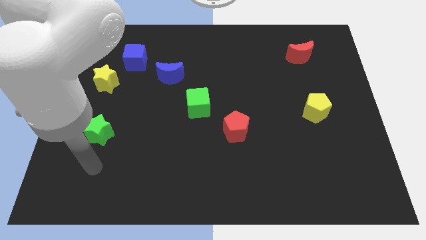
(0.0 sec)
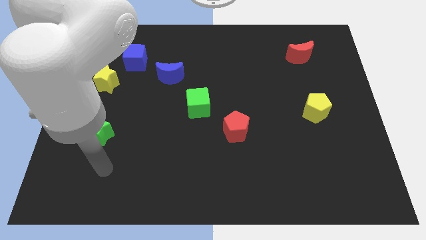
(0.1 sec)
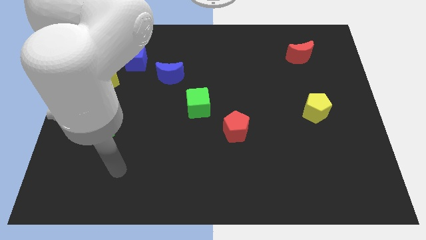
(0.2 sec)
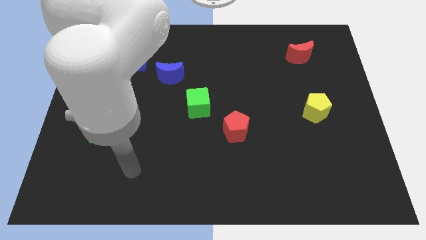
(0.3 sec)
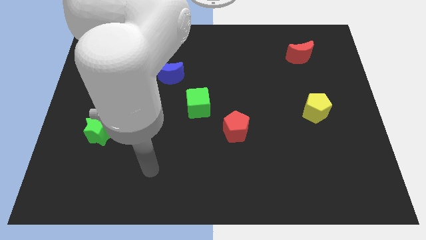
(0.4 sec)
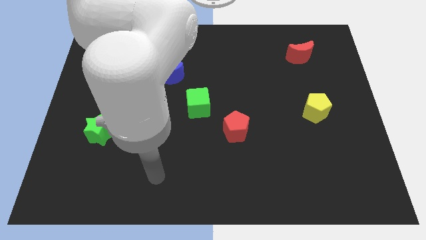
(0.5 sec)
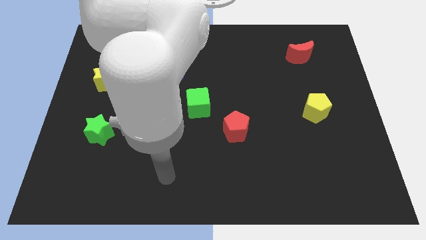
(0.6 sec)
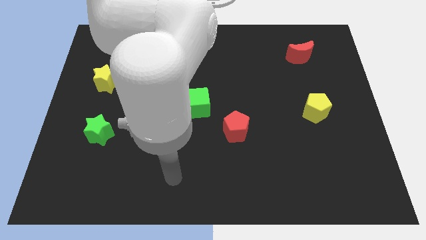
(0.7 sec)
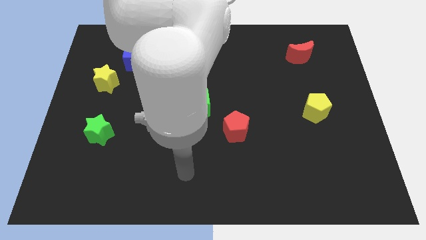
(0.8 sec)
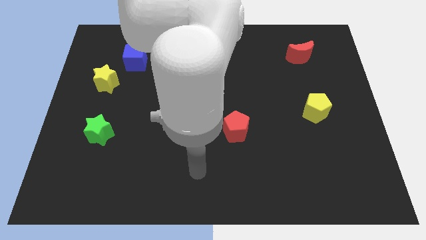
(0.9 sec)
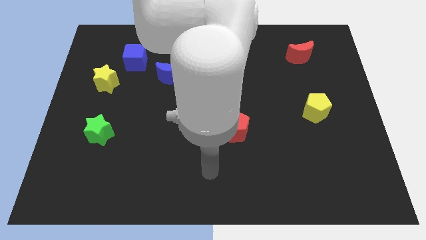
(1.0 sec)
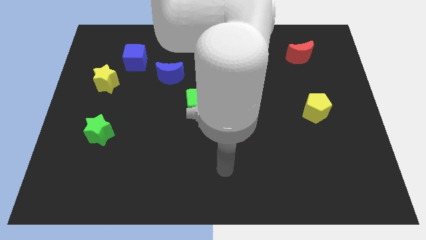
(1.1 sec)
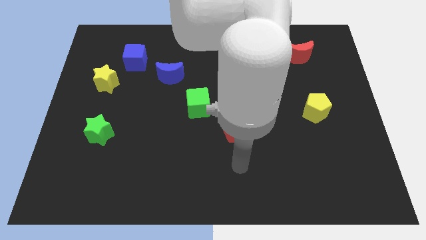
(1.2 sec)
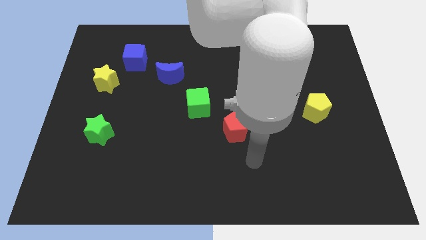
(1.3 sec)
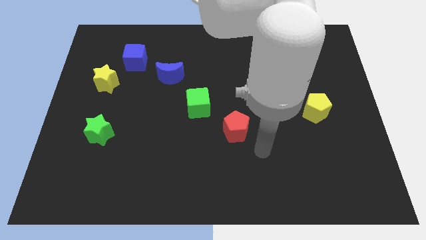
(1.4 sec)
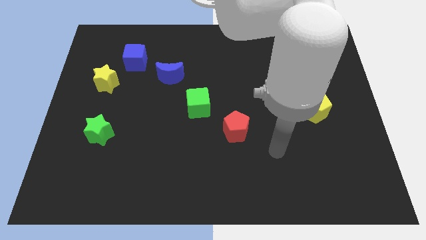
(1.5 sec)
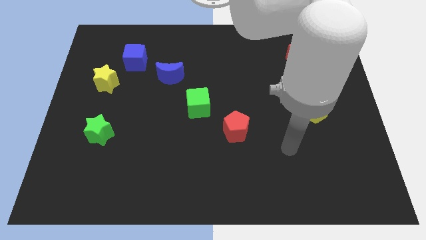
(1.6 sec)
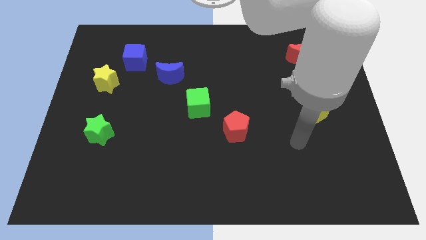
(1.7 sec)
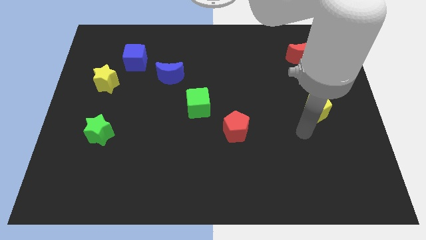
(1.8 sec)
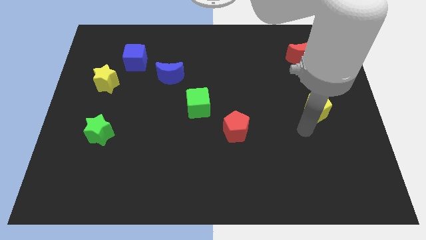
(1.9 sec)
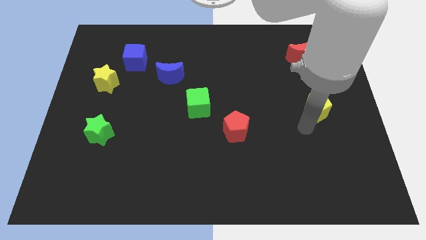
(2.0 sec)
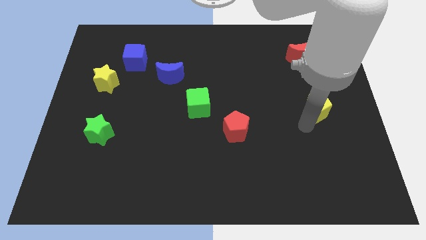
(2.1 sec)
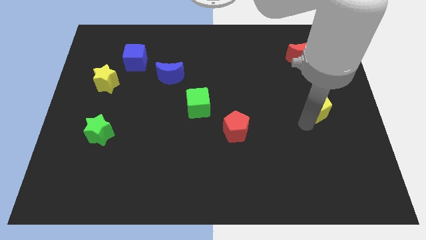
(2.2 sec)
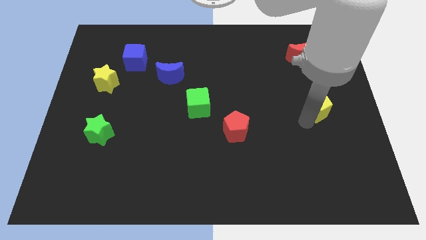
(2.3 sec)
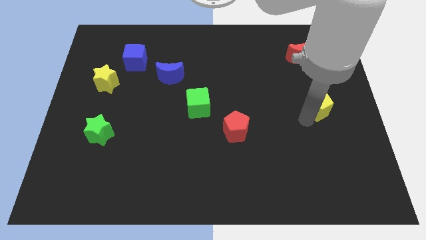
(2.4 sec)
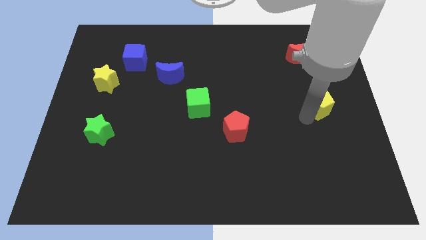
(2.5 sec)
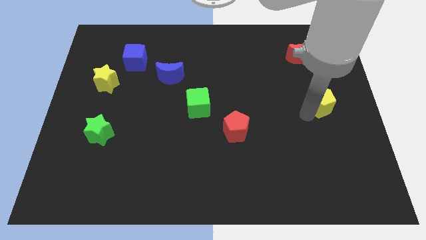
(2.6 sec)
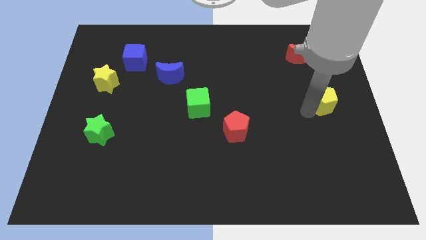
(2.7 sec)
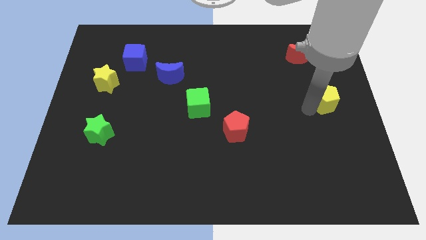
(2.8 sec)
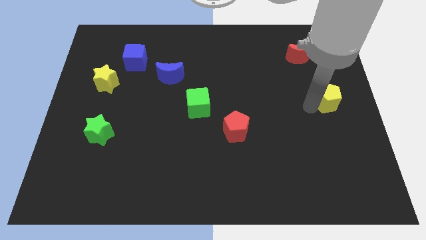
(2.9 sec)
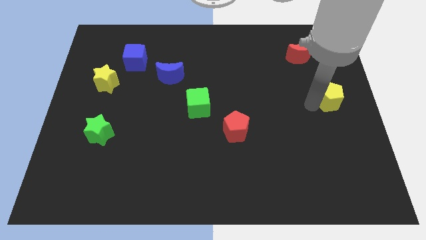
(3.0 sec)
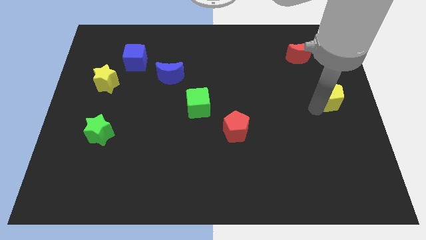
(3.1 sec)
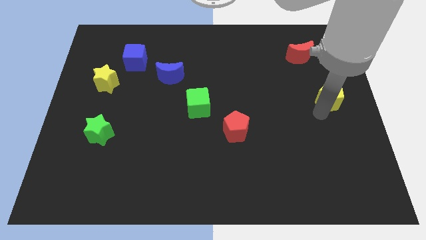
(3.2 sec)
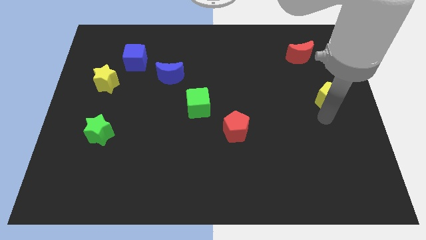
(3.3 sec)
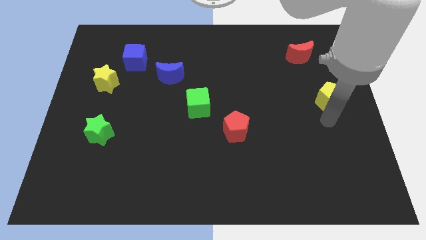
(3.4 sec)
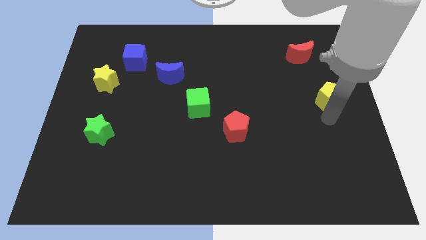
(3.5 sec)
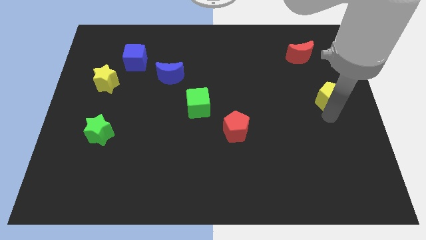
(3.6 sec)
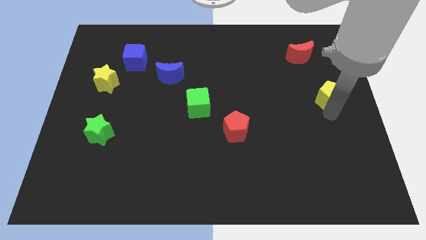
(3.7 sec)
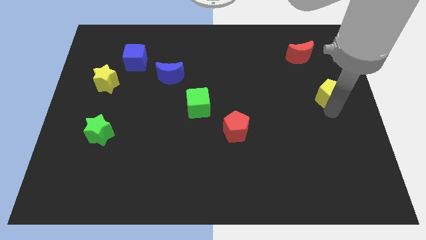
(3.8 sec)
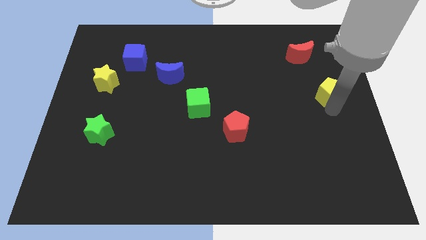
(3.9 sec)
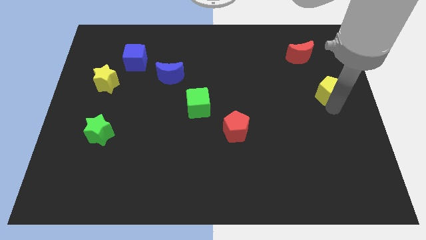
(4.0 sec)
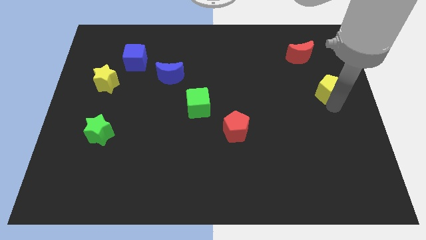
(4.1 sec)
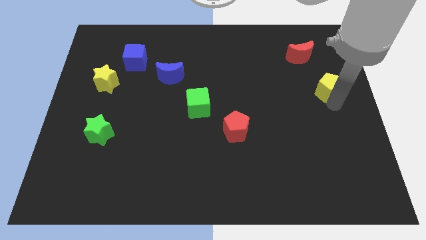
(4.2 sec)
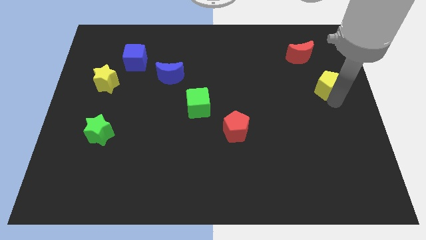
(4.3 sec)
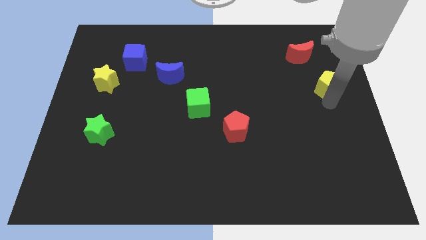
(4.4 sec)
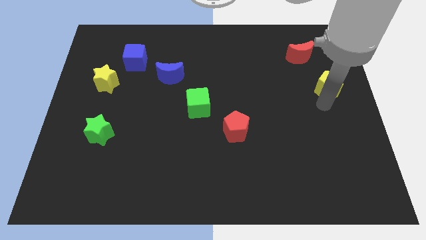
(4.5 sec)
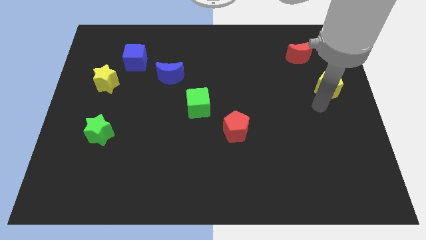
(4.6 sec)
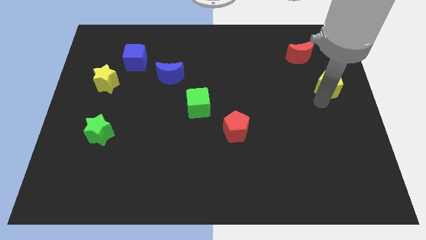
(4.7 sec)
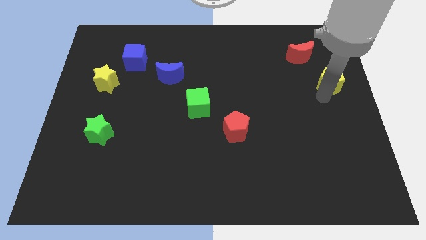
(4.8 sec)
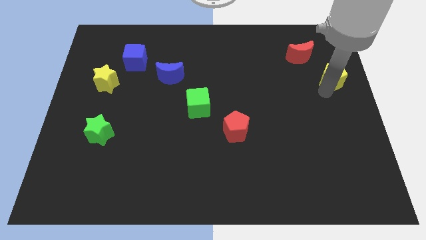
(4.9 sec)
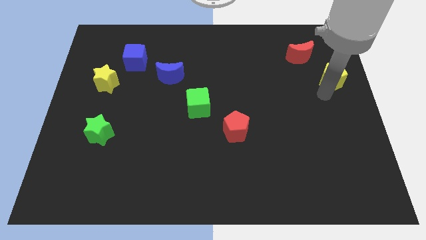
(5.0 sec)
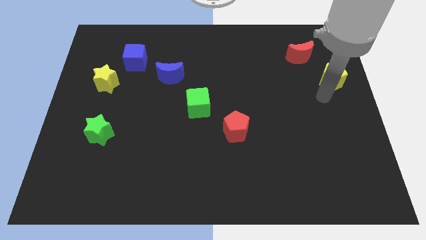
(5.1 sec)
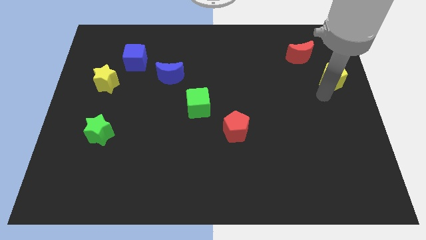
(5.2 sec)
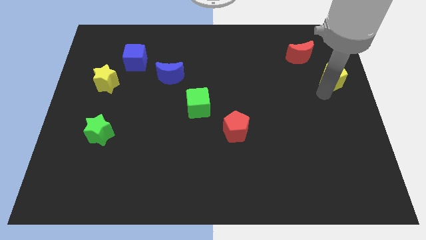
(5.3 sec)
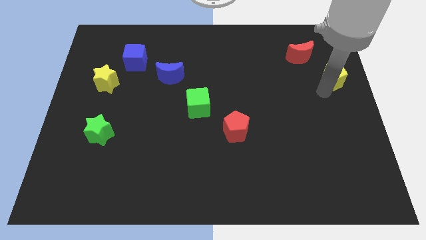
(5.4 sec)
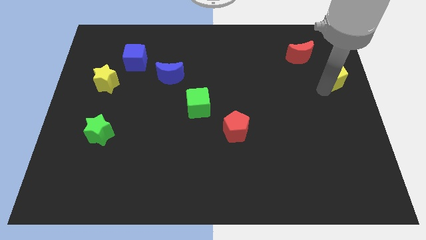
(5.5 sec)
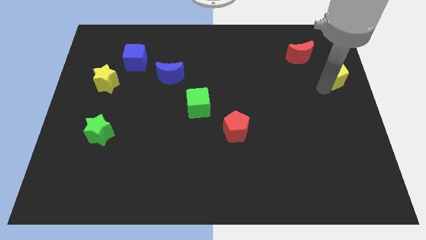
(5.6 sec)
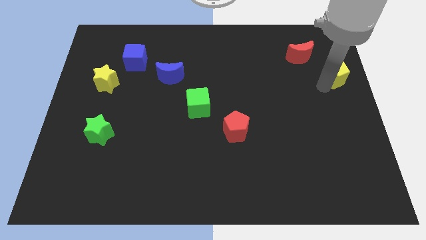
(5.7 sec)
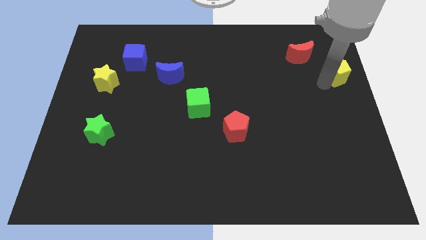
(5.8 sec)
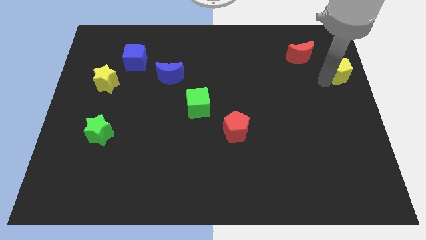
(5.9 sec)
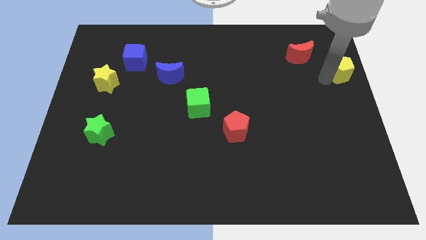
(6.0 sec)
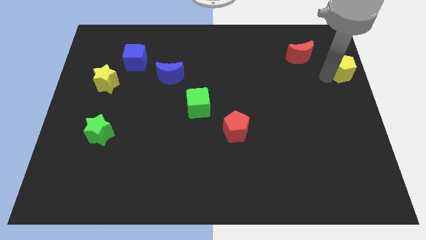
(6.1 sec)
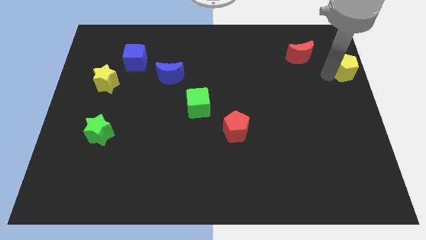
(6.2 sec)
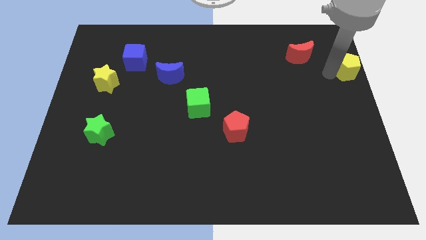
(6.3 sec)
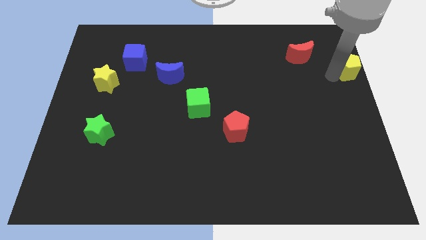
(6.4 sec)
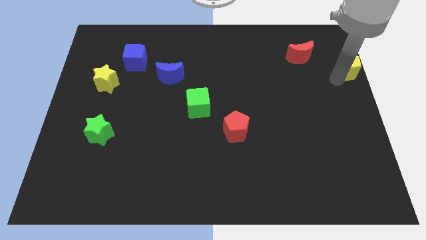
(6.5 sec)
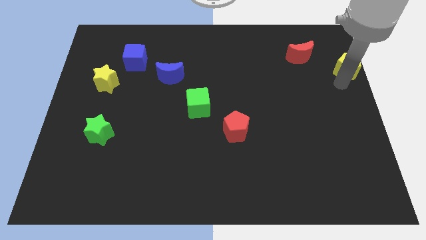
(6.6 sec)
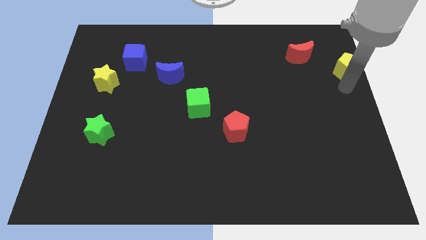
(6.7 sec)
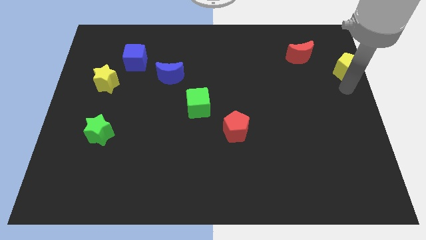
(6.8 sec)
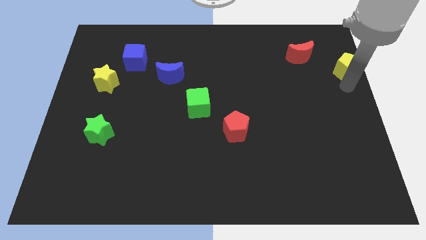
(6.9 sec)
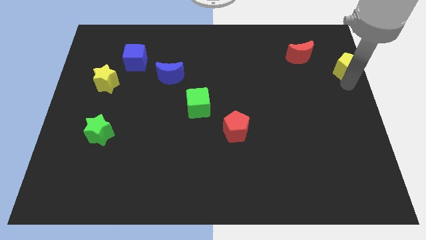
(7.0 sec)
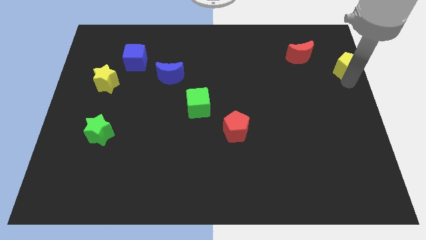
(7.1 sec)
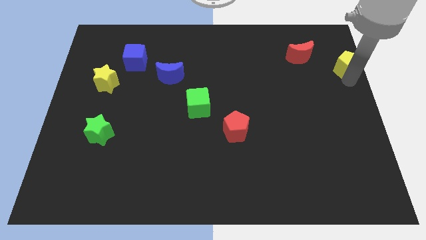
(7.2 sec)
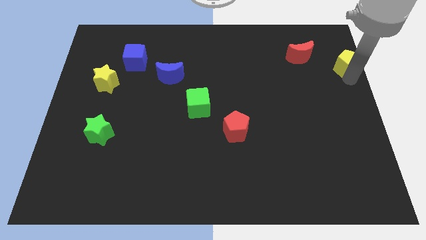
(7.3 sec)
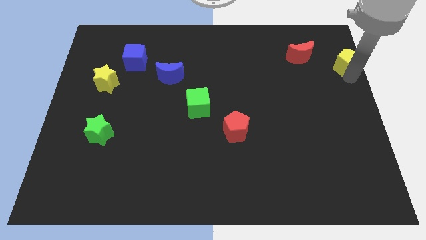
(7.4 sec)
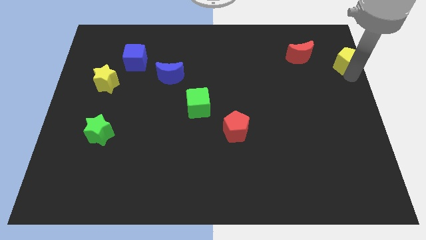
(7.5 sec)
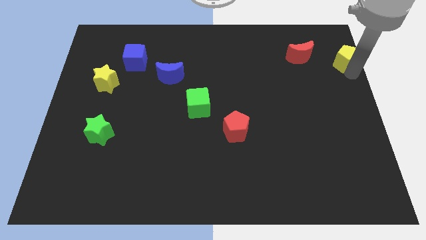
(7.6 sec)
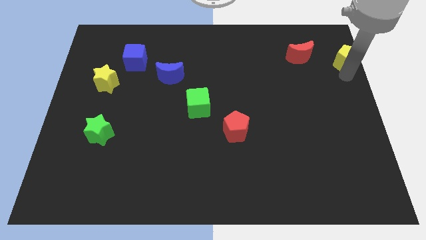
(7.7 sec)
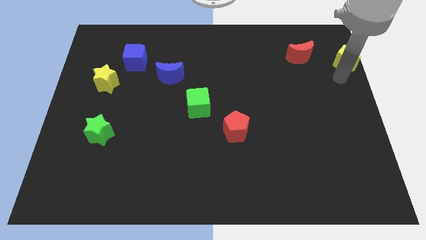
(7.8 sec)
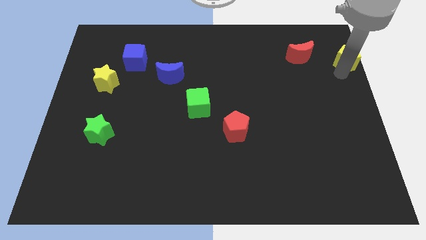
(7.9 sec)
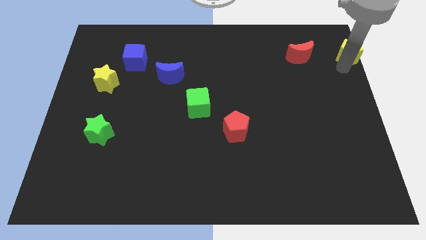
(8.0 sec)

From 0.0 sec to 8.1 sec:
put the yellow pentagon to the top right
